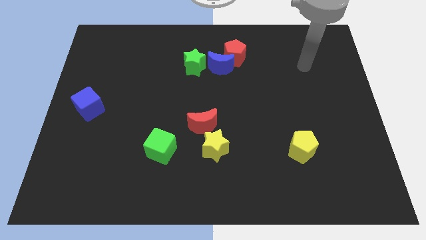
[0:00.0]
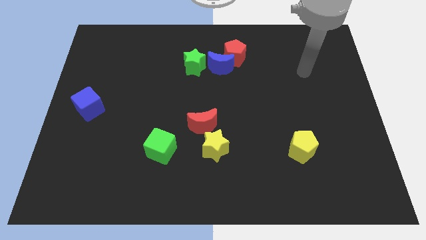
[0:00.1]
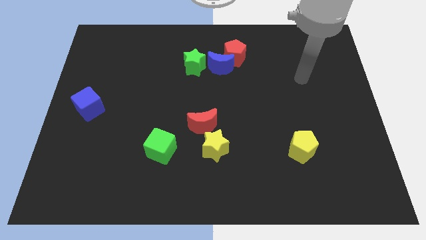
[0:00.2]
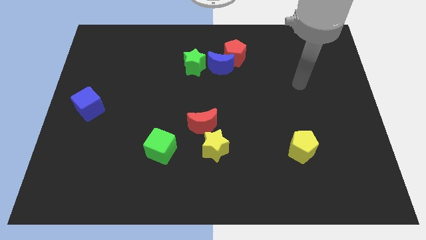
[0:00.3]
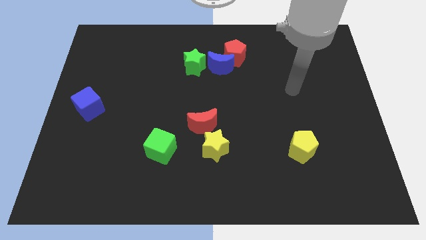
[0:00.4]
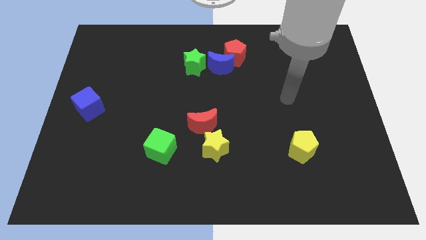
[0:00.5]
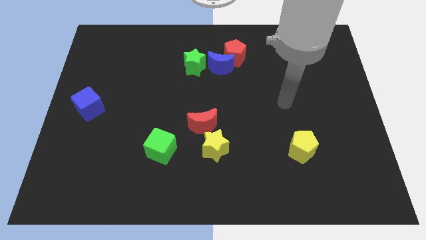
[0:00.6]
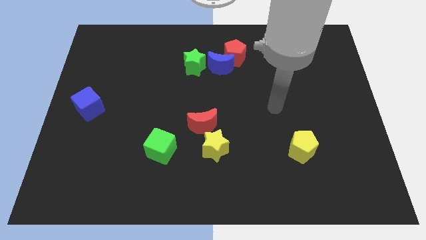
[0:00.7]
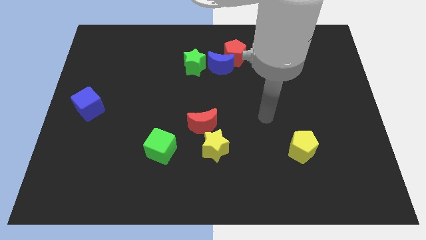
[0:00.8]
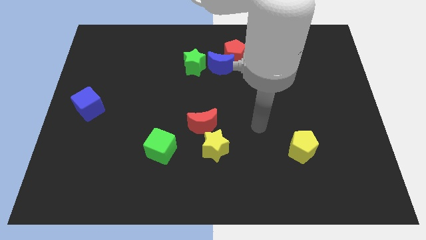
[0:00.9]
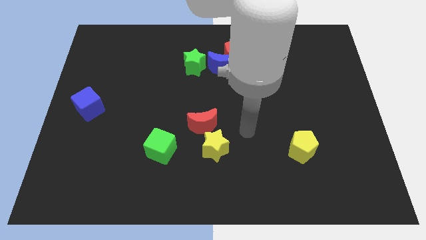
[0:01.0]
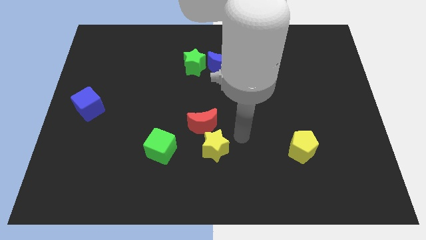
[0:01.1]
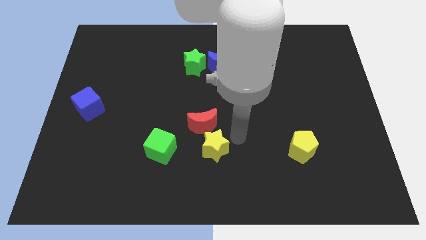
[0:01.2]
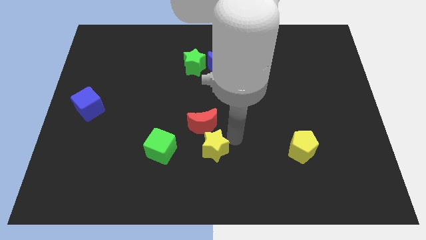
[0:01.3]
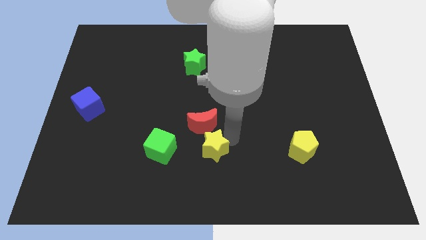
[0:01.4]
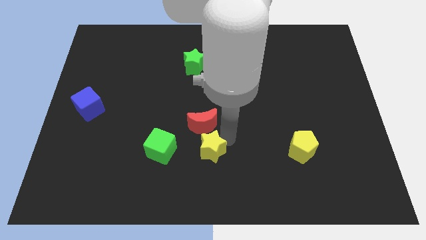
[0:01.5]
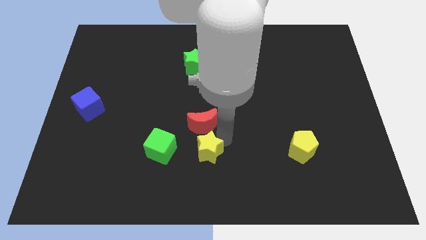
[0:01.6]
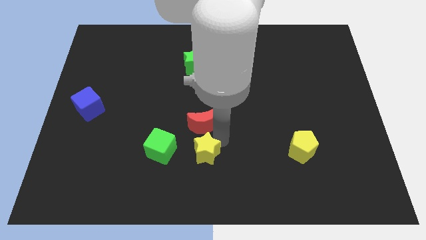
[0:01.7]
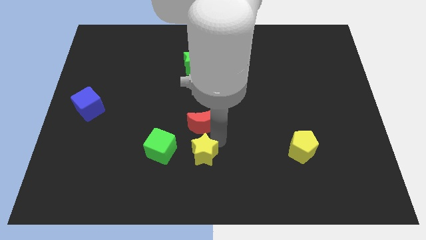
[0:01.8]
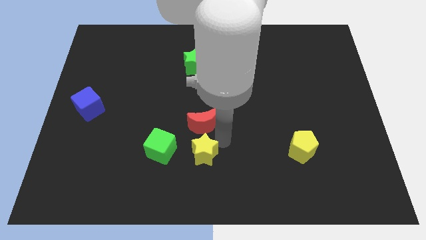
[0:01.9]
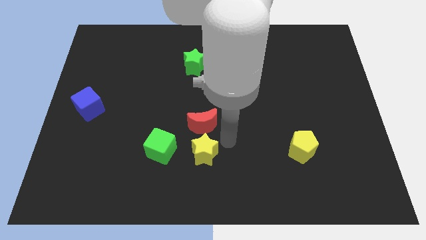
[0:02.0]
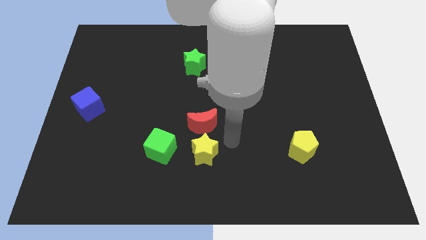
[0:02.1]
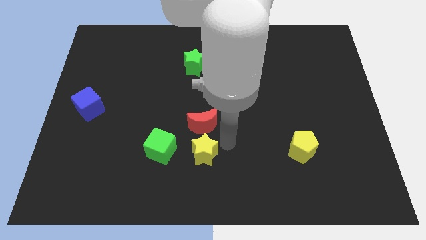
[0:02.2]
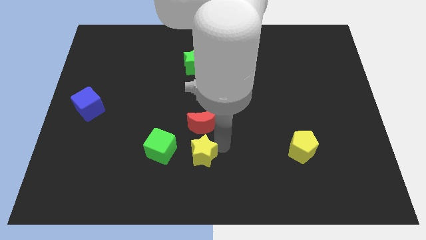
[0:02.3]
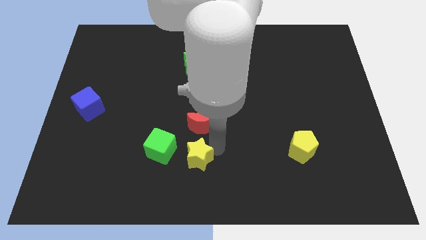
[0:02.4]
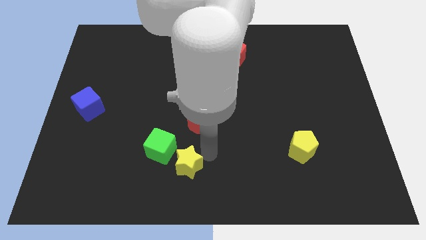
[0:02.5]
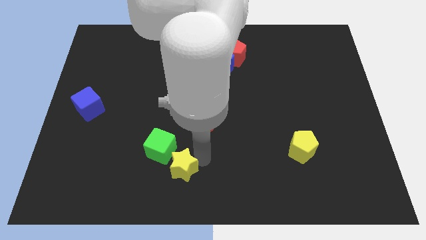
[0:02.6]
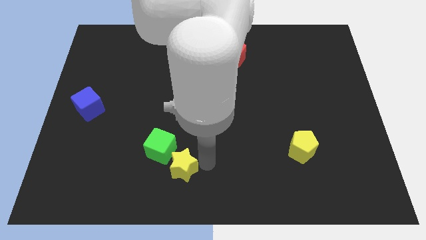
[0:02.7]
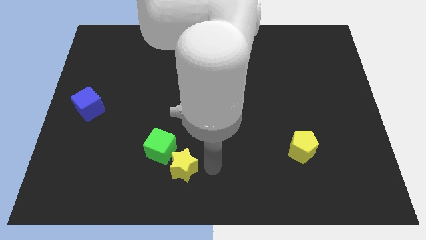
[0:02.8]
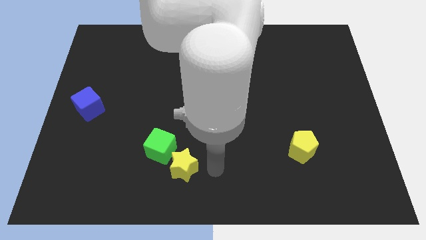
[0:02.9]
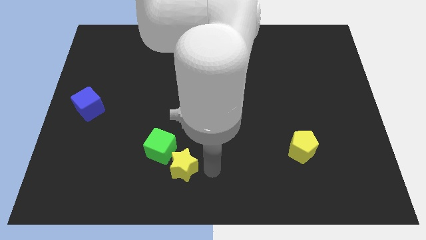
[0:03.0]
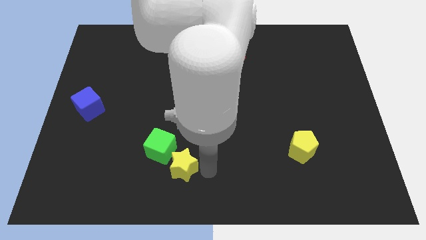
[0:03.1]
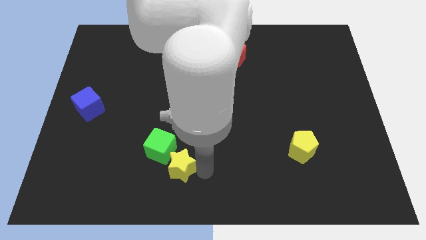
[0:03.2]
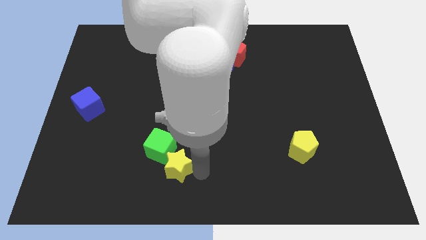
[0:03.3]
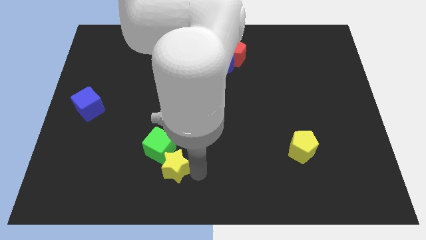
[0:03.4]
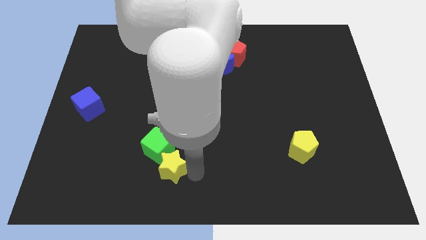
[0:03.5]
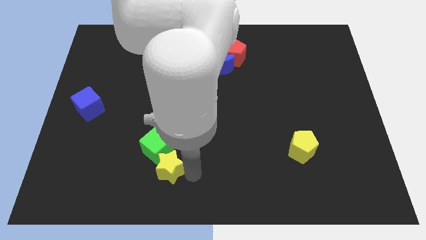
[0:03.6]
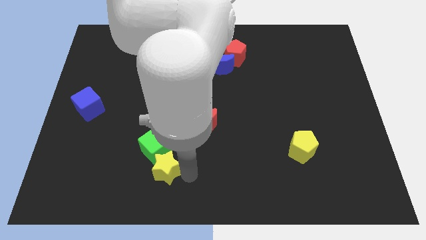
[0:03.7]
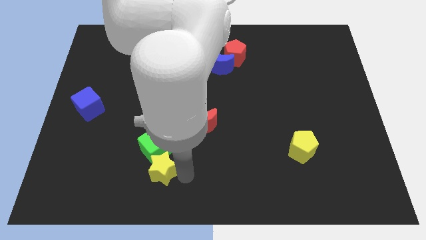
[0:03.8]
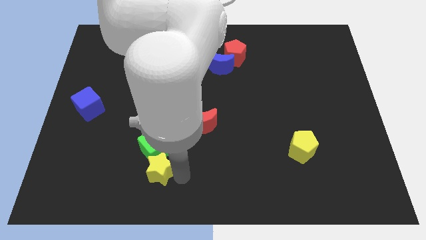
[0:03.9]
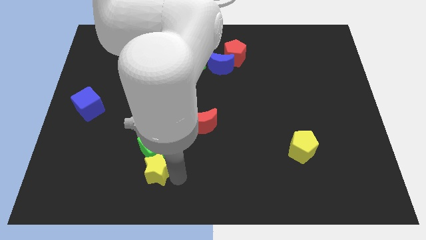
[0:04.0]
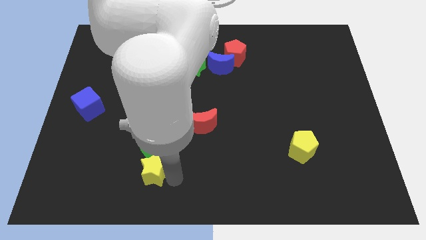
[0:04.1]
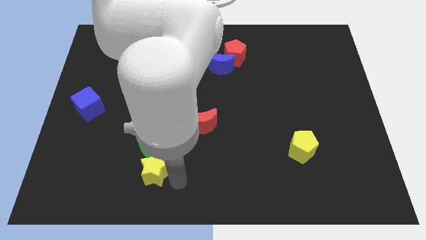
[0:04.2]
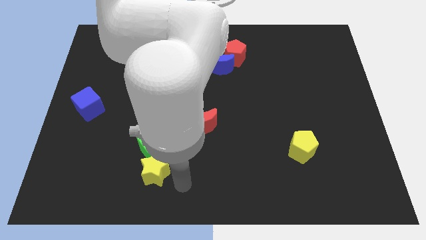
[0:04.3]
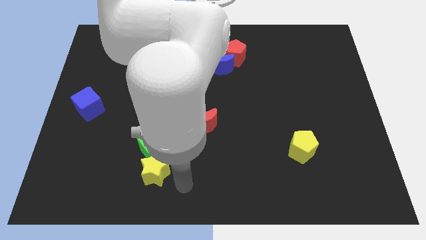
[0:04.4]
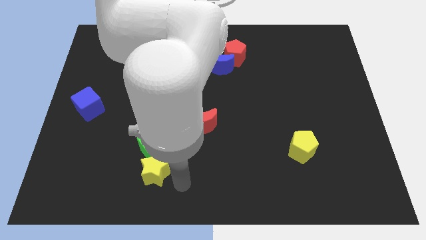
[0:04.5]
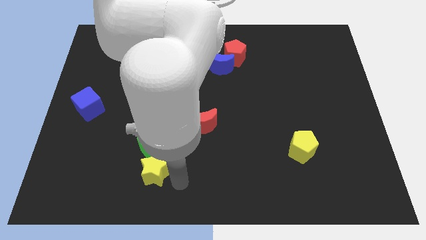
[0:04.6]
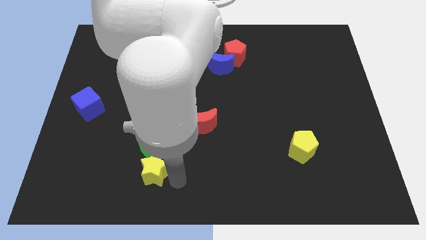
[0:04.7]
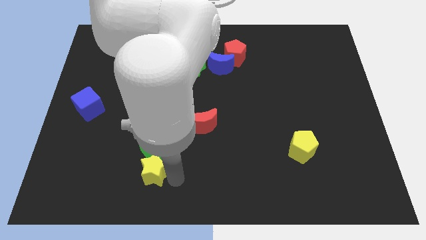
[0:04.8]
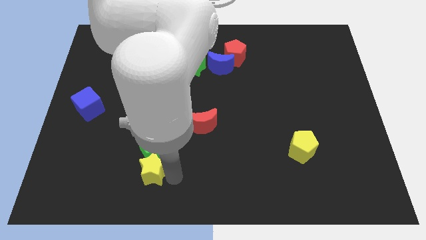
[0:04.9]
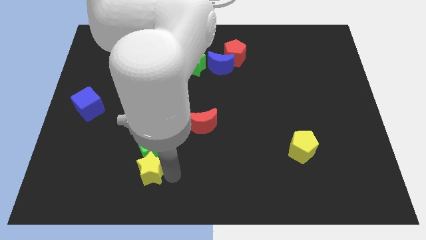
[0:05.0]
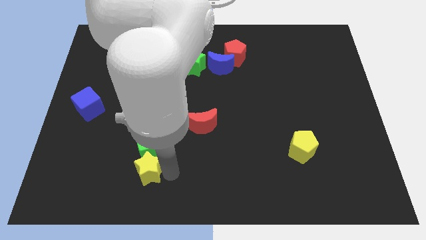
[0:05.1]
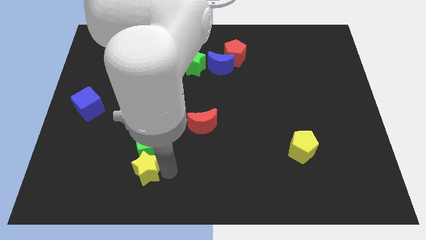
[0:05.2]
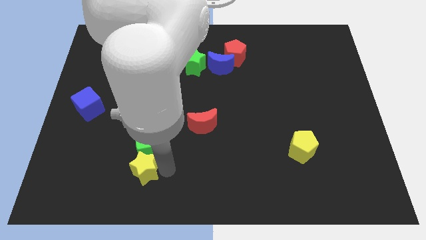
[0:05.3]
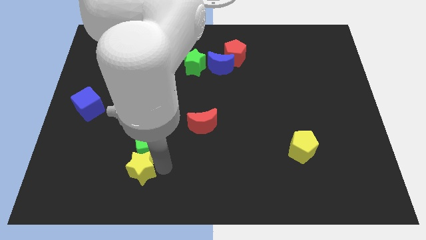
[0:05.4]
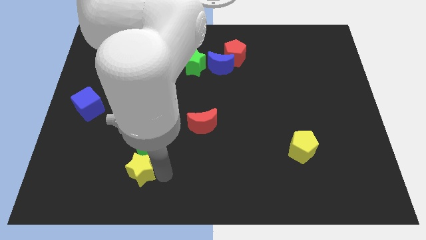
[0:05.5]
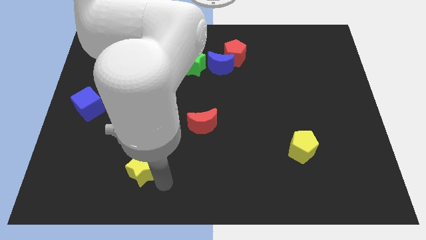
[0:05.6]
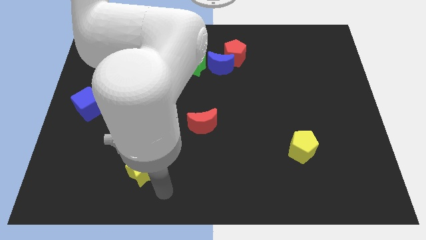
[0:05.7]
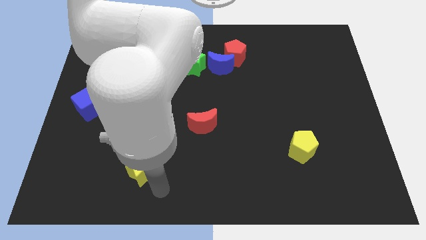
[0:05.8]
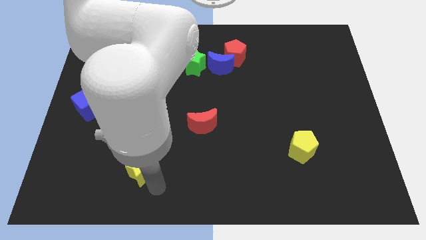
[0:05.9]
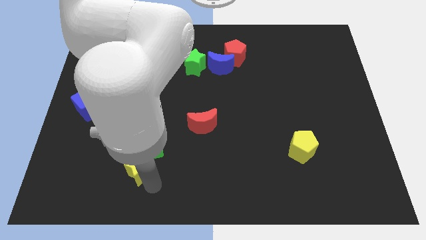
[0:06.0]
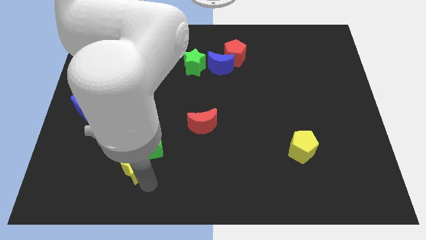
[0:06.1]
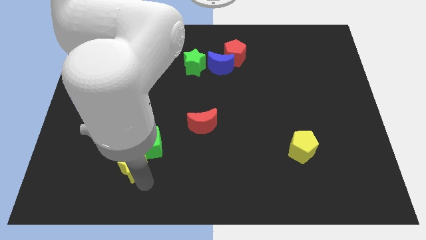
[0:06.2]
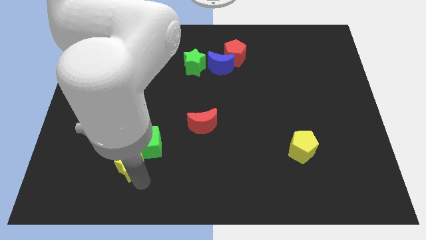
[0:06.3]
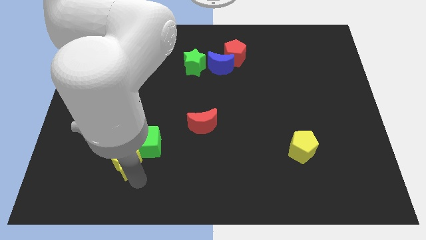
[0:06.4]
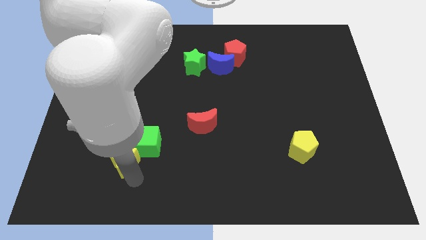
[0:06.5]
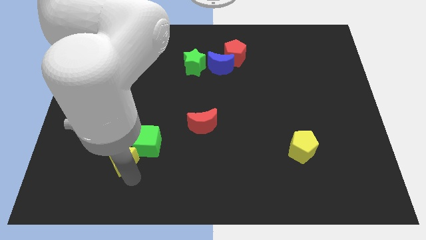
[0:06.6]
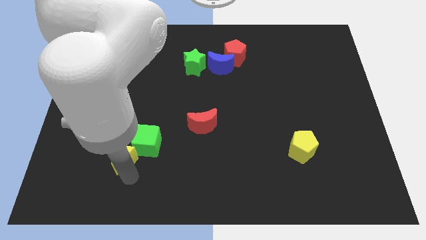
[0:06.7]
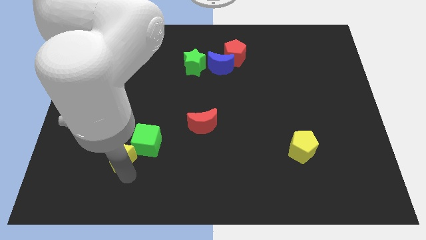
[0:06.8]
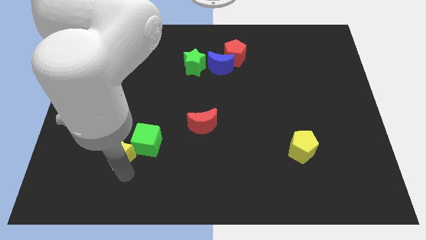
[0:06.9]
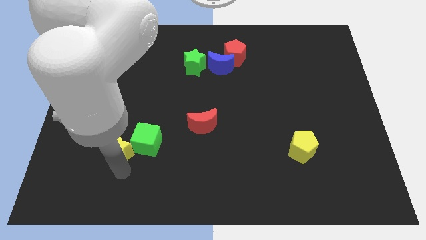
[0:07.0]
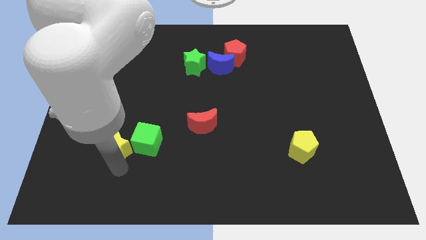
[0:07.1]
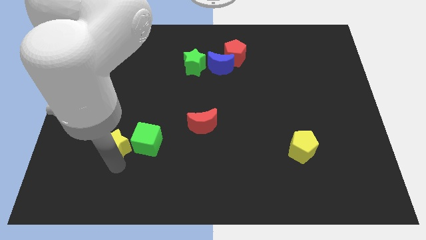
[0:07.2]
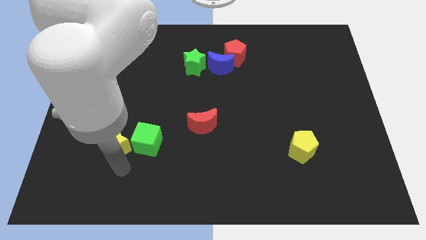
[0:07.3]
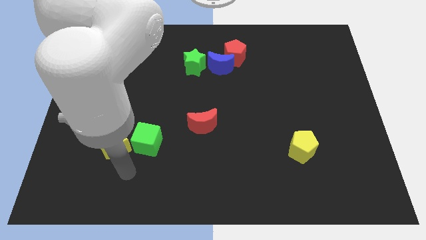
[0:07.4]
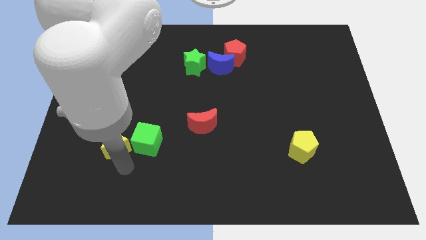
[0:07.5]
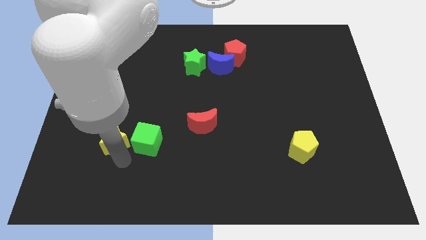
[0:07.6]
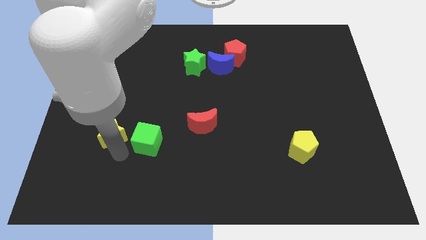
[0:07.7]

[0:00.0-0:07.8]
push the yellow star to the bottom right of the blue cube
